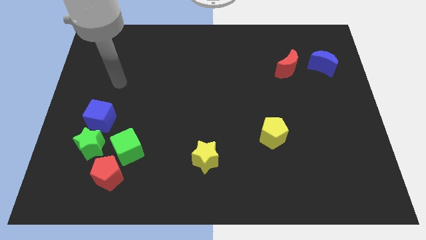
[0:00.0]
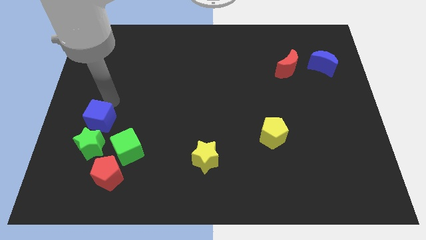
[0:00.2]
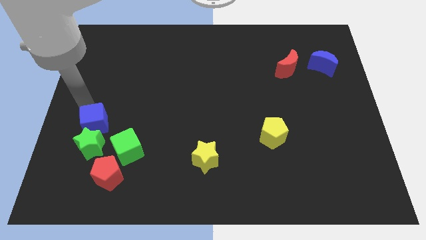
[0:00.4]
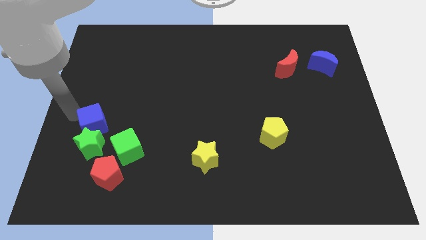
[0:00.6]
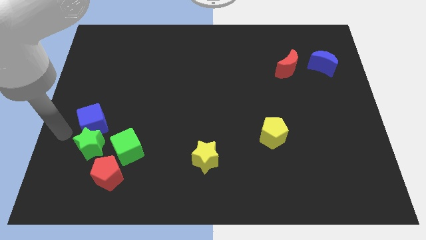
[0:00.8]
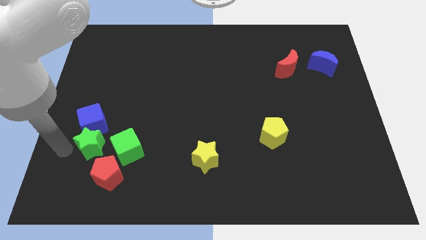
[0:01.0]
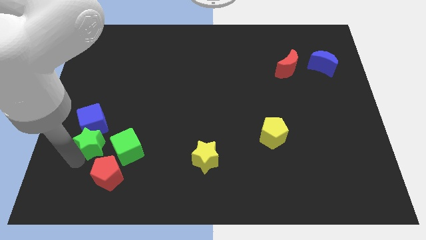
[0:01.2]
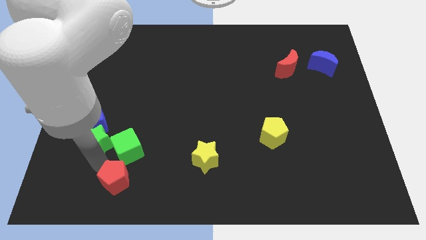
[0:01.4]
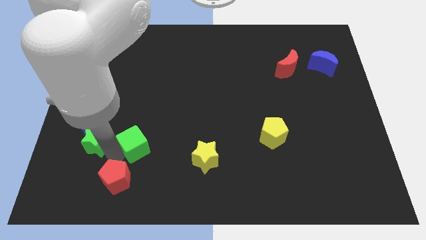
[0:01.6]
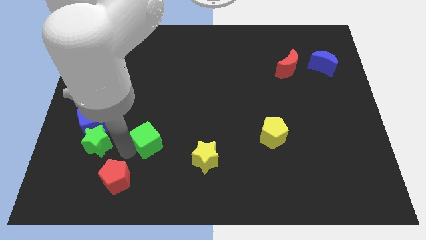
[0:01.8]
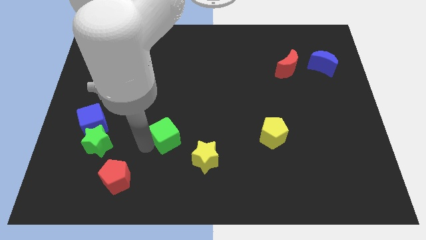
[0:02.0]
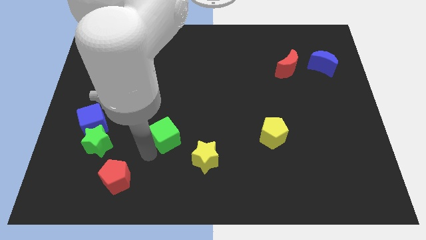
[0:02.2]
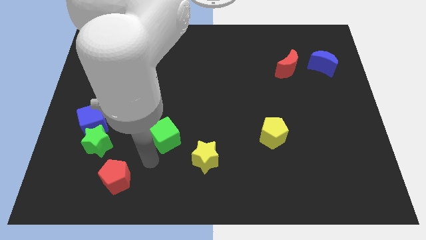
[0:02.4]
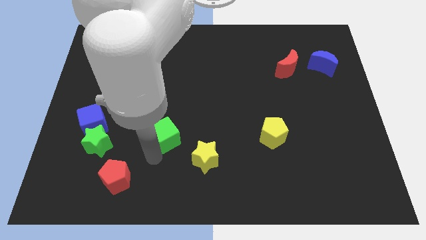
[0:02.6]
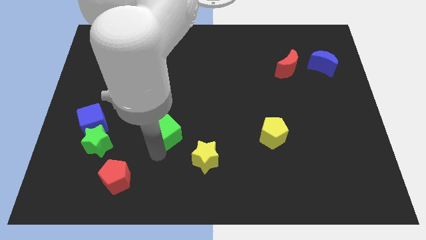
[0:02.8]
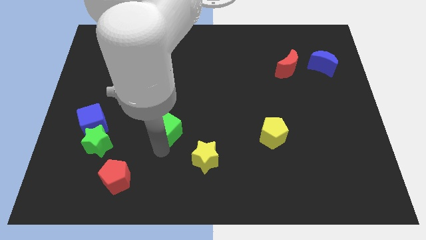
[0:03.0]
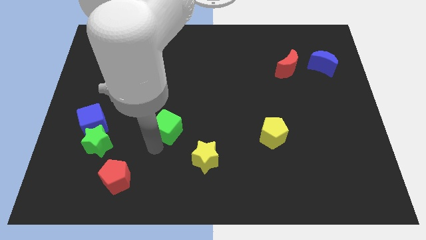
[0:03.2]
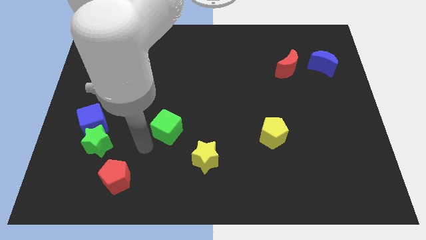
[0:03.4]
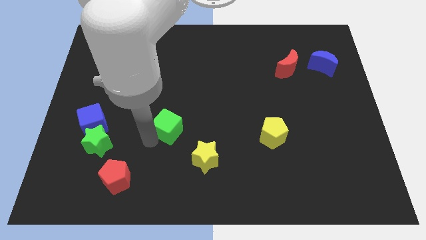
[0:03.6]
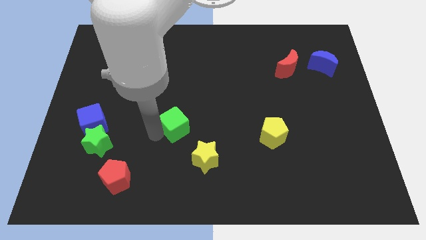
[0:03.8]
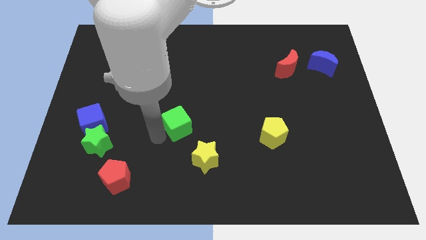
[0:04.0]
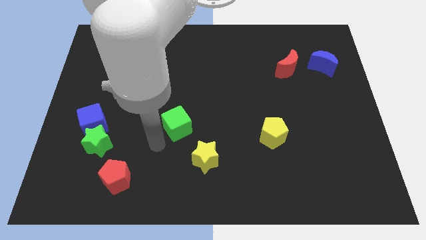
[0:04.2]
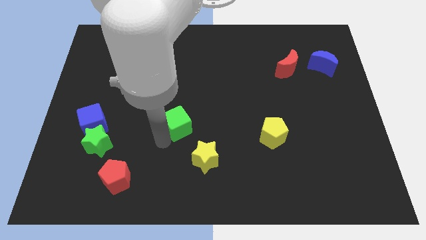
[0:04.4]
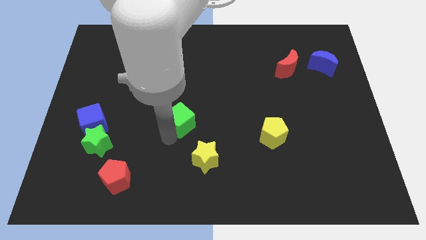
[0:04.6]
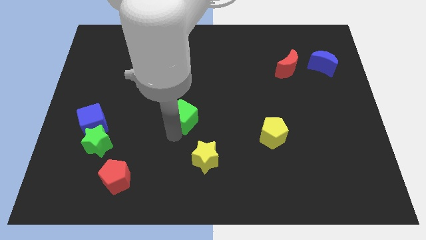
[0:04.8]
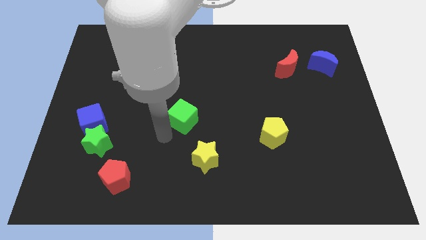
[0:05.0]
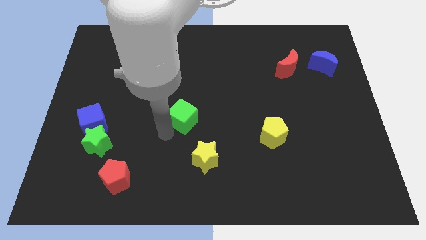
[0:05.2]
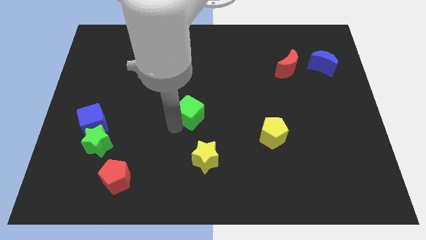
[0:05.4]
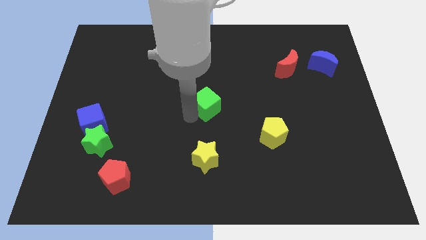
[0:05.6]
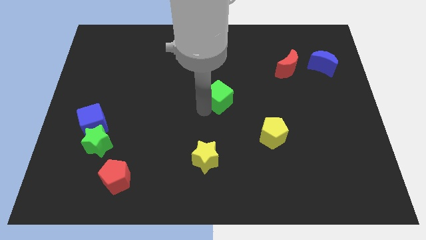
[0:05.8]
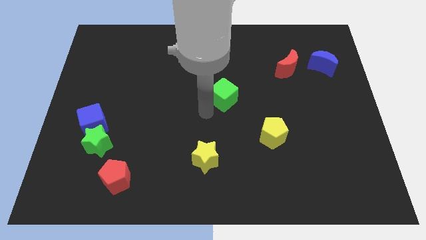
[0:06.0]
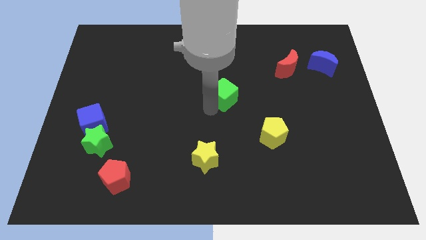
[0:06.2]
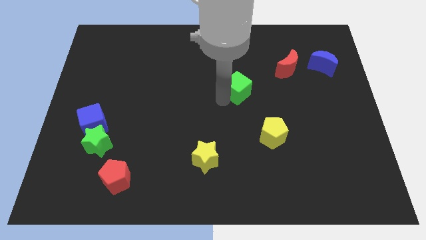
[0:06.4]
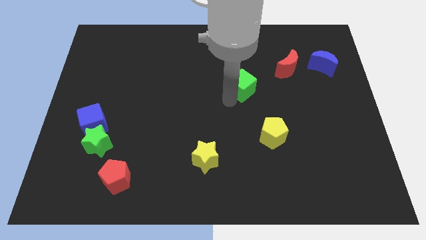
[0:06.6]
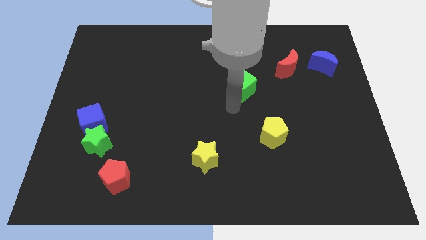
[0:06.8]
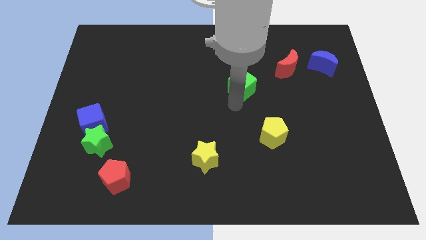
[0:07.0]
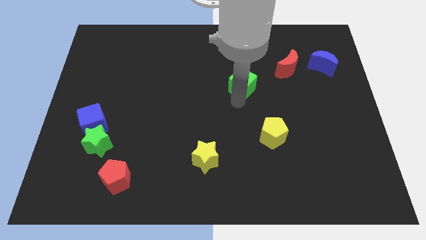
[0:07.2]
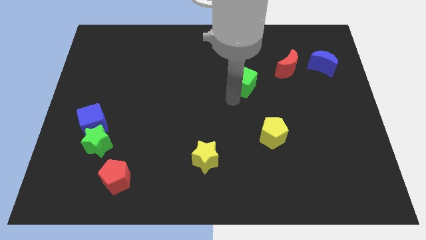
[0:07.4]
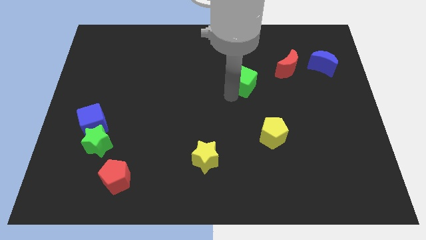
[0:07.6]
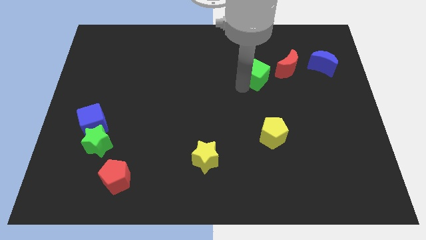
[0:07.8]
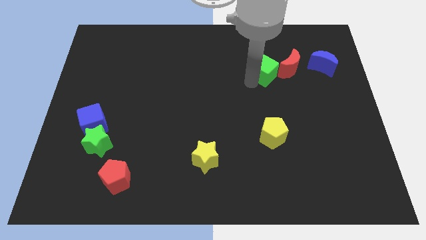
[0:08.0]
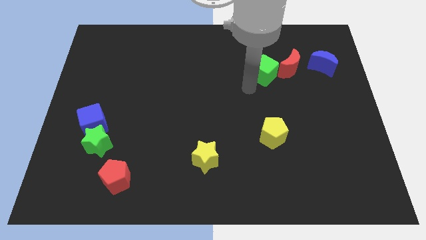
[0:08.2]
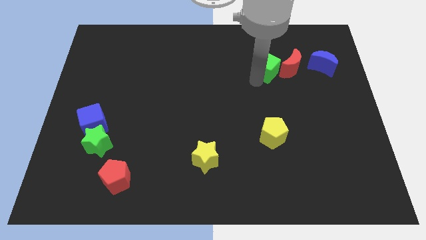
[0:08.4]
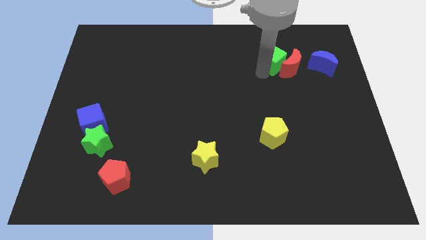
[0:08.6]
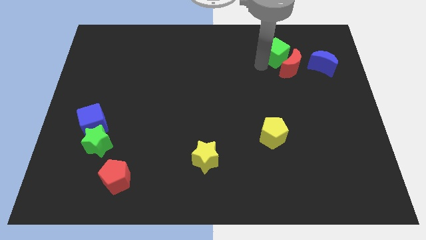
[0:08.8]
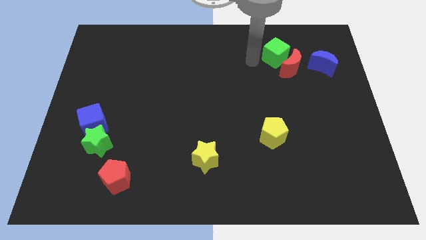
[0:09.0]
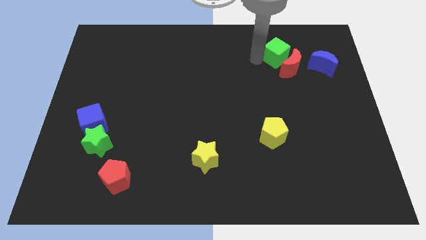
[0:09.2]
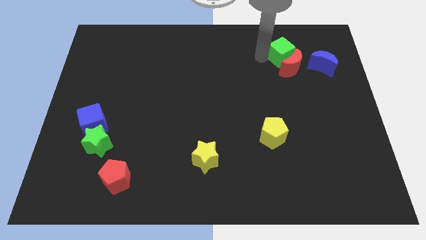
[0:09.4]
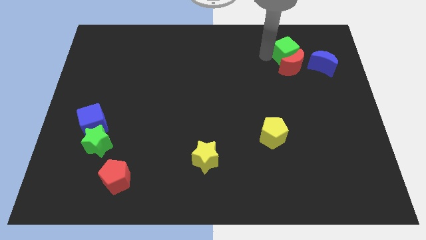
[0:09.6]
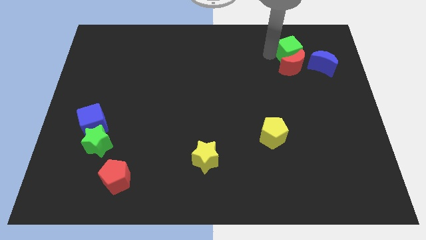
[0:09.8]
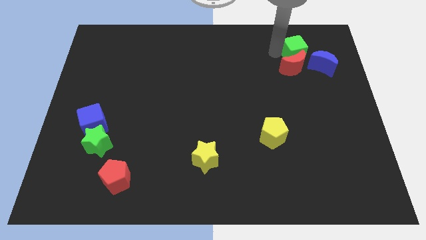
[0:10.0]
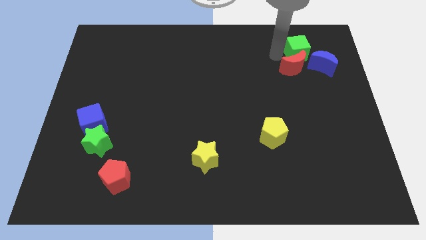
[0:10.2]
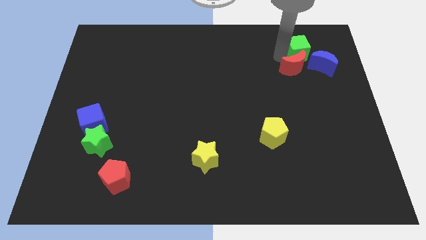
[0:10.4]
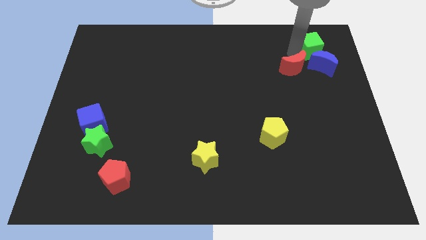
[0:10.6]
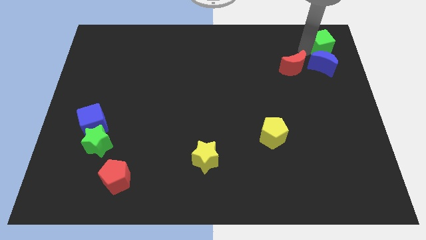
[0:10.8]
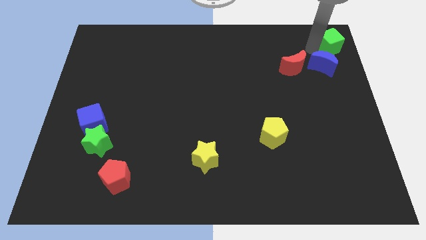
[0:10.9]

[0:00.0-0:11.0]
push the green cube to the top right

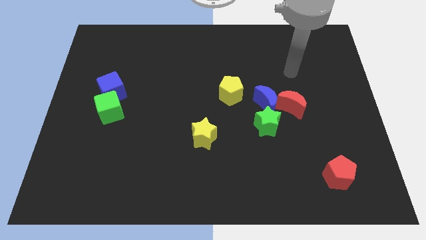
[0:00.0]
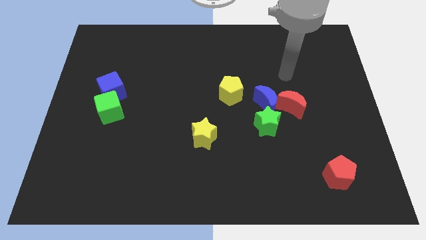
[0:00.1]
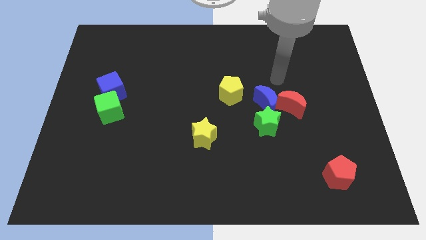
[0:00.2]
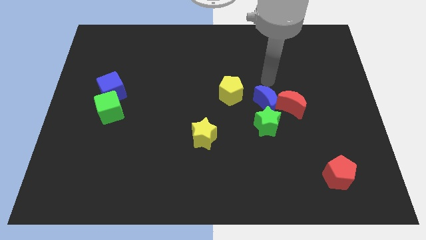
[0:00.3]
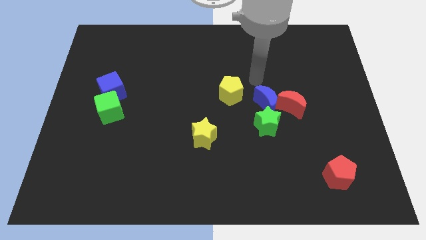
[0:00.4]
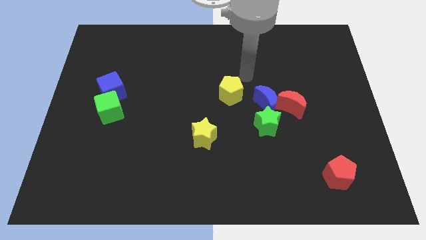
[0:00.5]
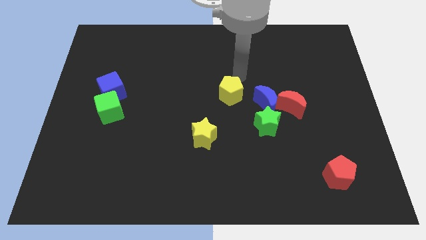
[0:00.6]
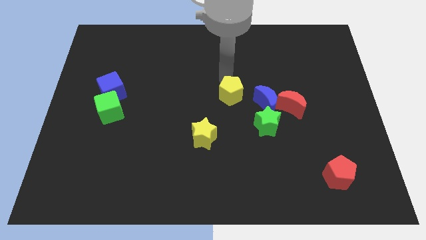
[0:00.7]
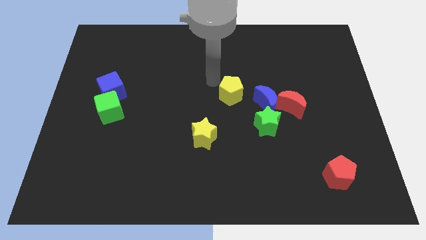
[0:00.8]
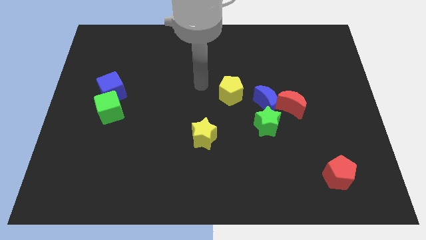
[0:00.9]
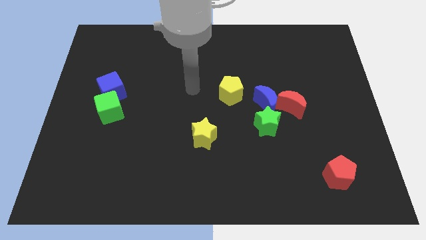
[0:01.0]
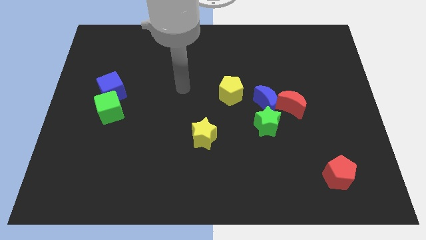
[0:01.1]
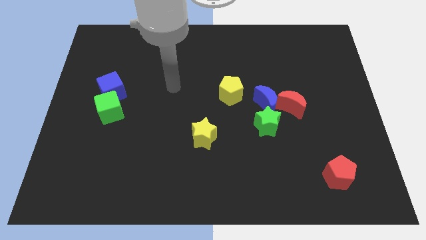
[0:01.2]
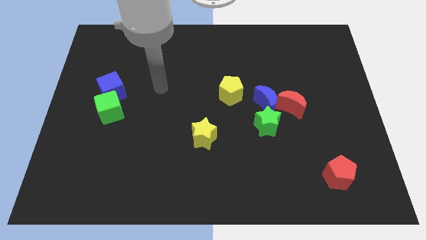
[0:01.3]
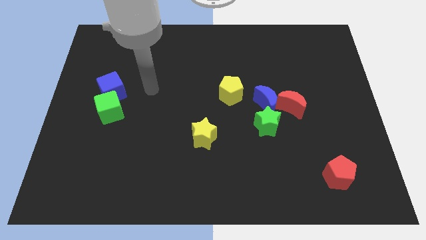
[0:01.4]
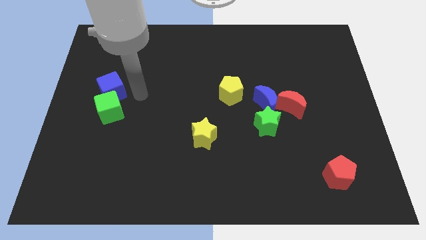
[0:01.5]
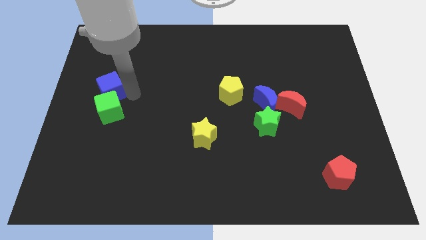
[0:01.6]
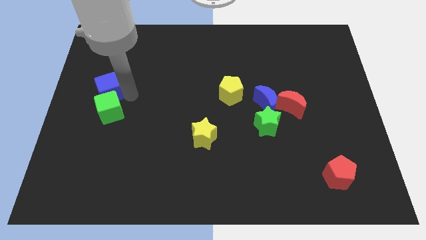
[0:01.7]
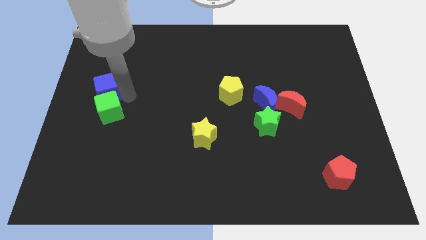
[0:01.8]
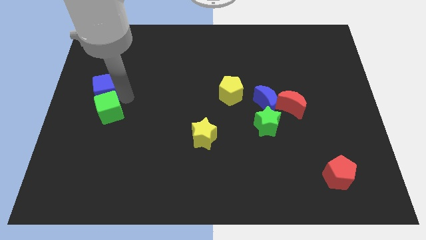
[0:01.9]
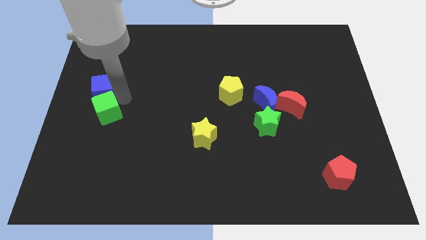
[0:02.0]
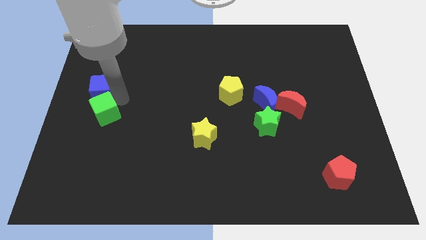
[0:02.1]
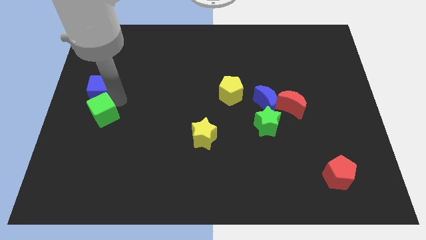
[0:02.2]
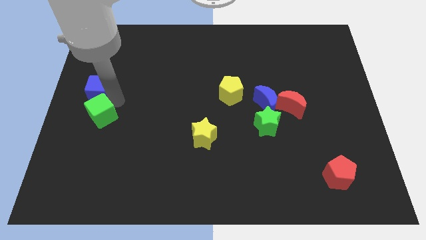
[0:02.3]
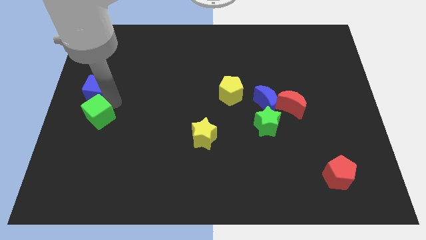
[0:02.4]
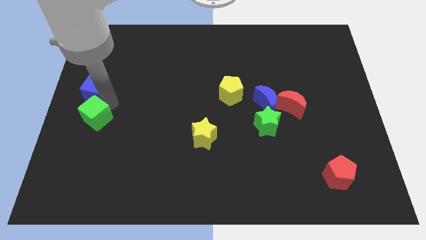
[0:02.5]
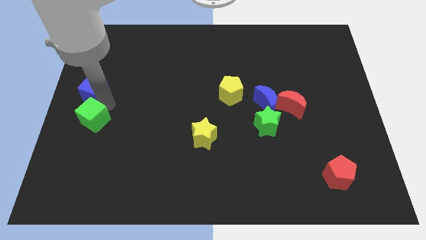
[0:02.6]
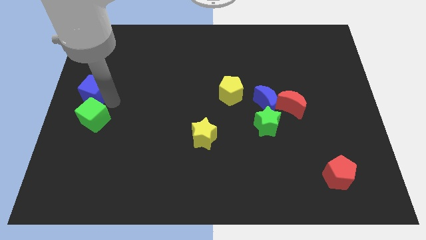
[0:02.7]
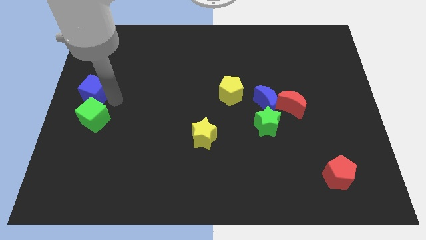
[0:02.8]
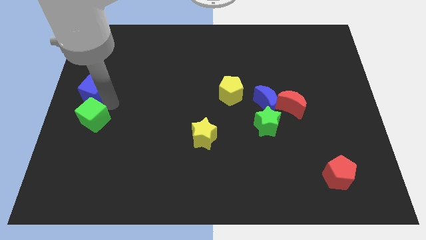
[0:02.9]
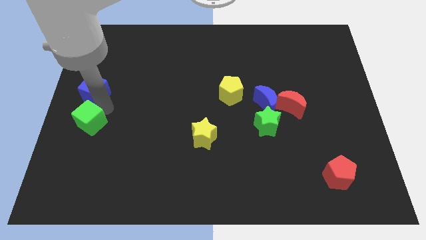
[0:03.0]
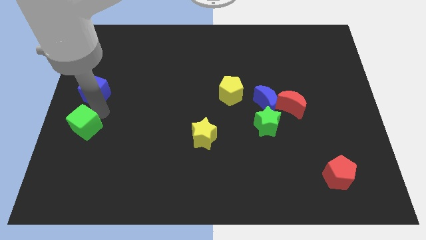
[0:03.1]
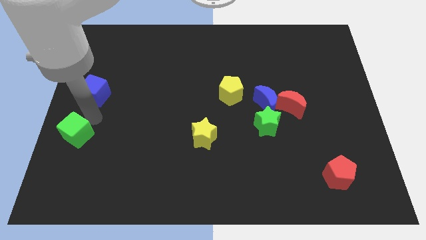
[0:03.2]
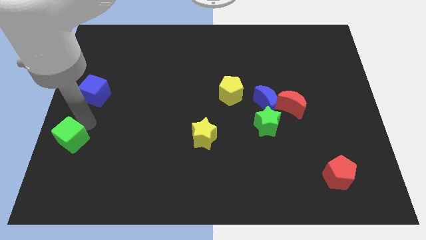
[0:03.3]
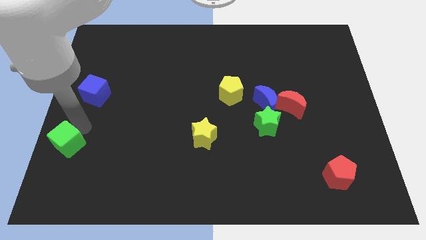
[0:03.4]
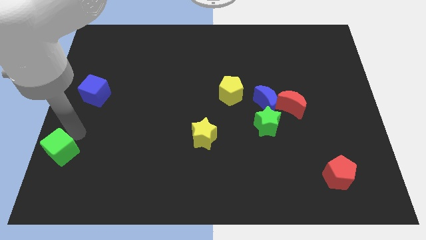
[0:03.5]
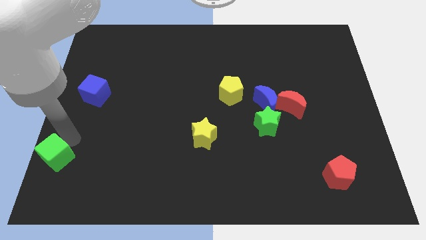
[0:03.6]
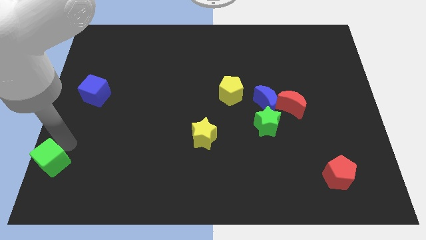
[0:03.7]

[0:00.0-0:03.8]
put the green cube to the lower left corner
